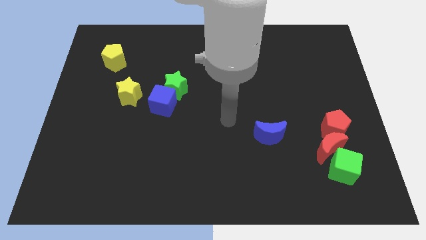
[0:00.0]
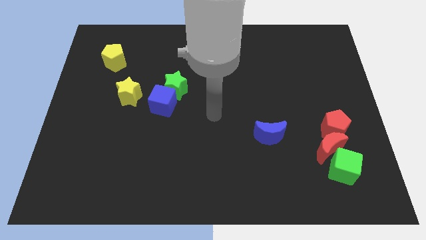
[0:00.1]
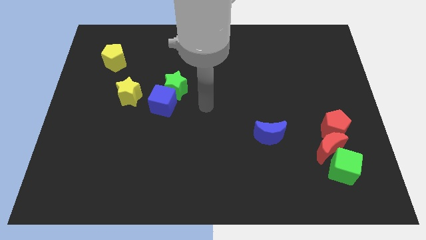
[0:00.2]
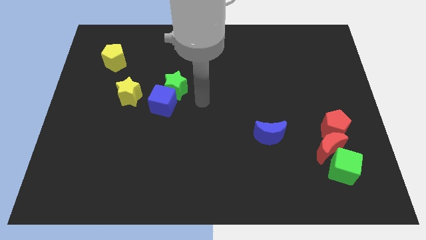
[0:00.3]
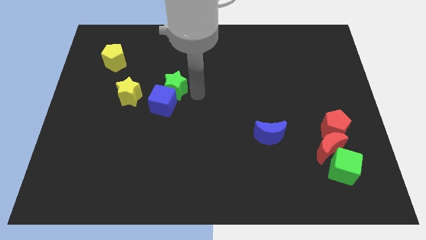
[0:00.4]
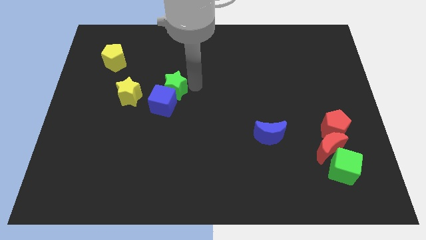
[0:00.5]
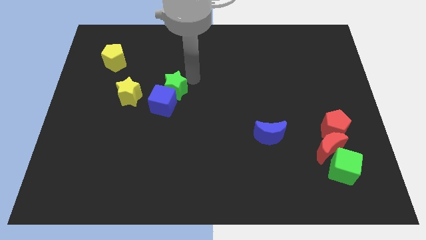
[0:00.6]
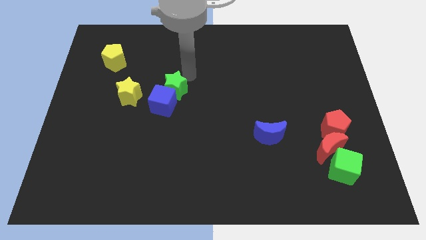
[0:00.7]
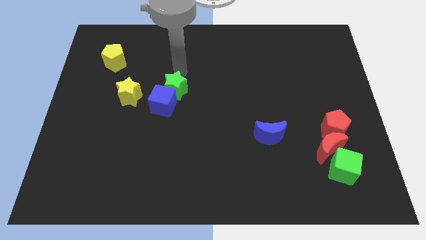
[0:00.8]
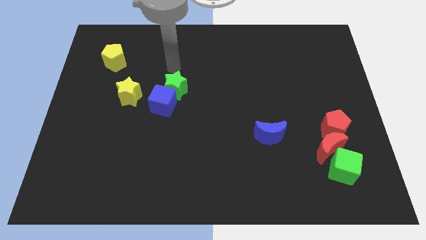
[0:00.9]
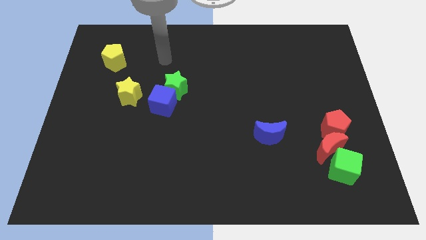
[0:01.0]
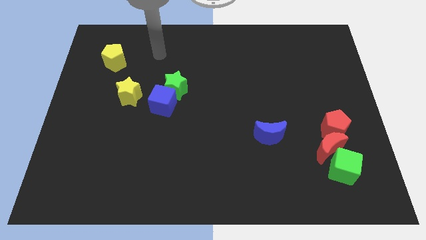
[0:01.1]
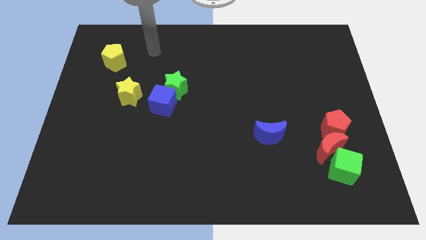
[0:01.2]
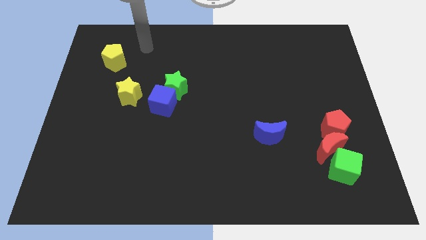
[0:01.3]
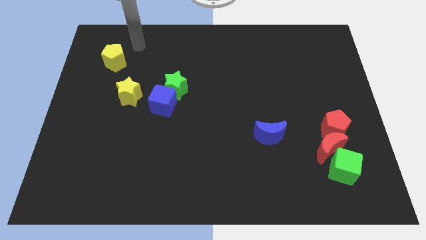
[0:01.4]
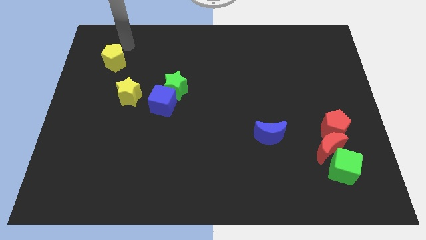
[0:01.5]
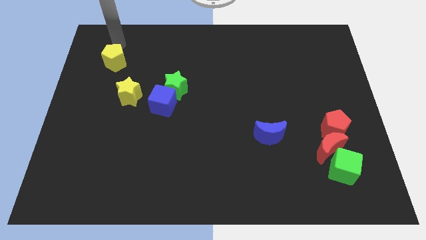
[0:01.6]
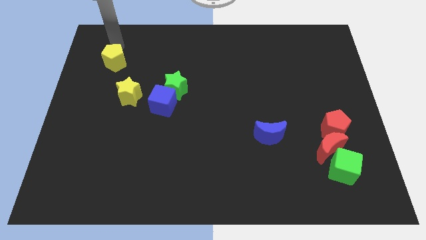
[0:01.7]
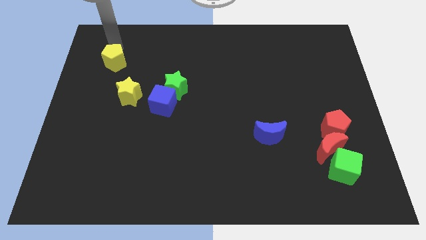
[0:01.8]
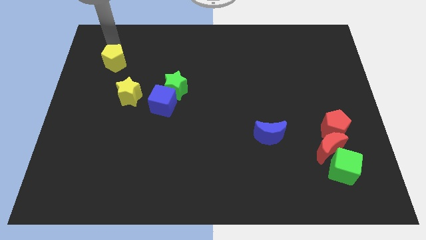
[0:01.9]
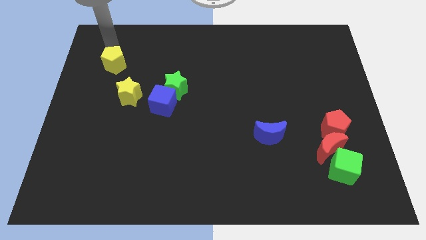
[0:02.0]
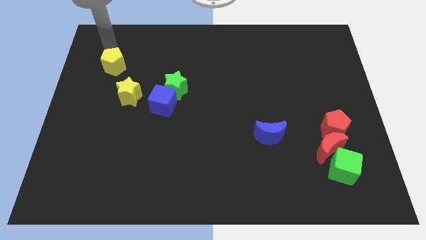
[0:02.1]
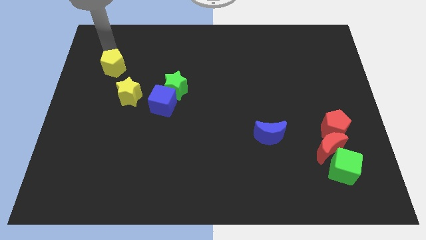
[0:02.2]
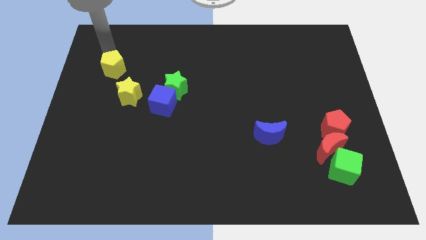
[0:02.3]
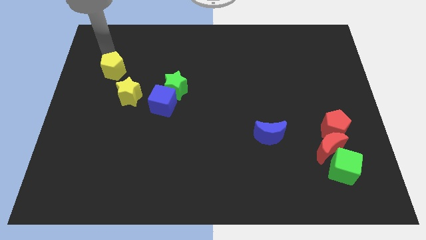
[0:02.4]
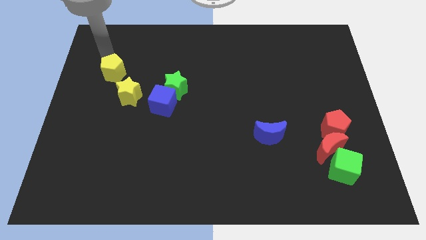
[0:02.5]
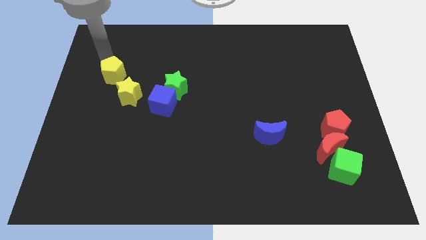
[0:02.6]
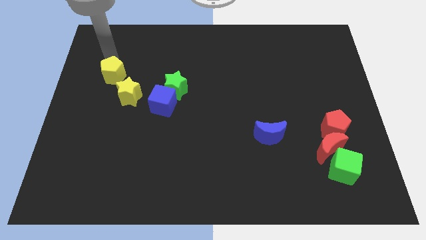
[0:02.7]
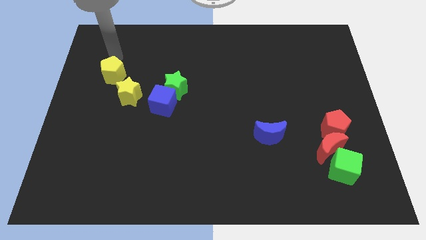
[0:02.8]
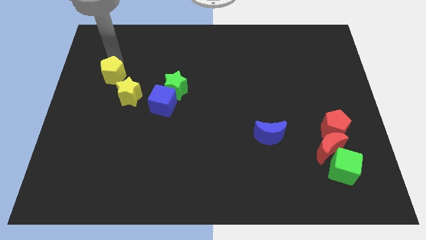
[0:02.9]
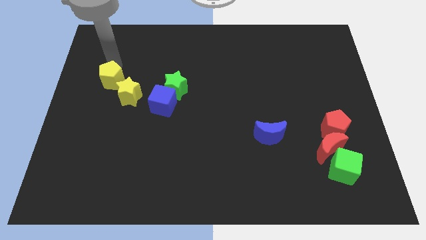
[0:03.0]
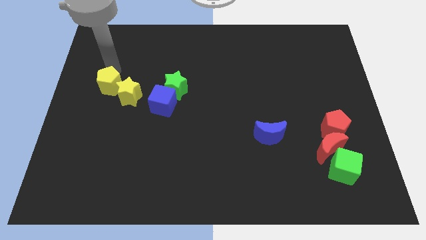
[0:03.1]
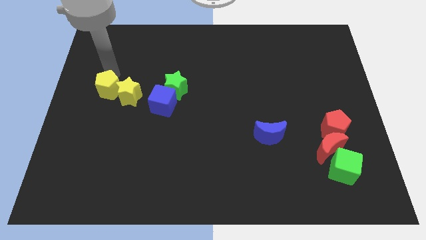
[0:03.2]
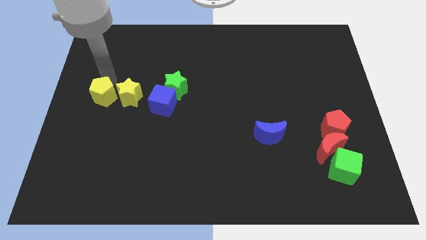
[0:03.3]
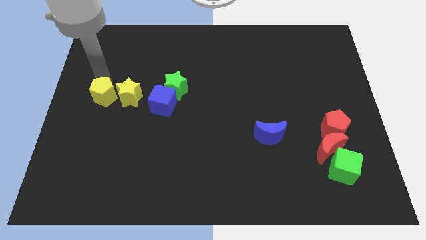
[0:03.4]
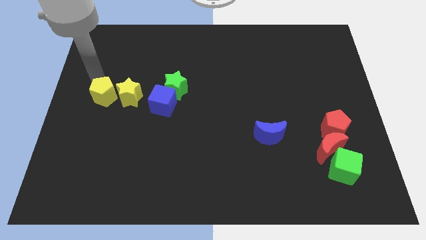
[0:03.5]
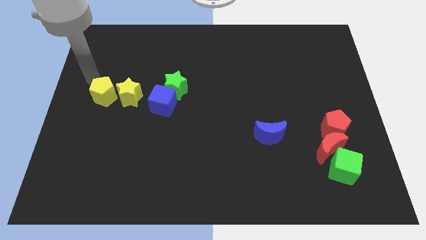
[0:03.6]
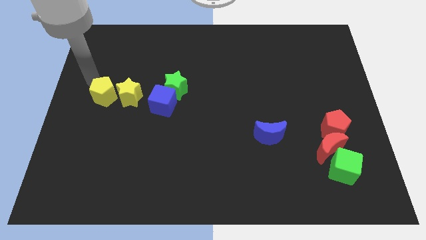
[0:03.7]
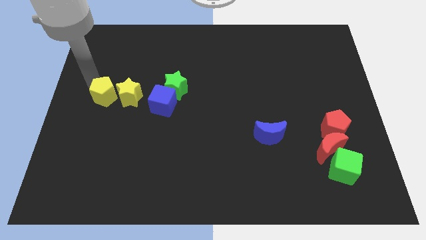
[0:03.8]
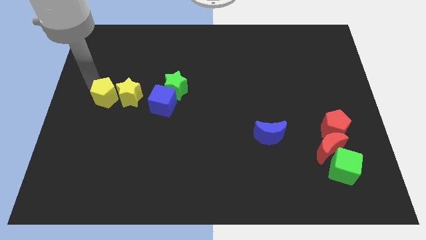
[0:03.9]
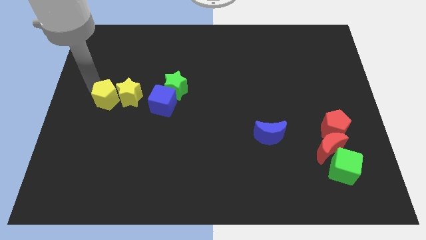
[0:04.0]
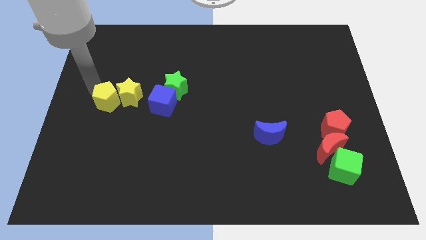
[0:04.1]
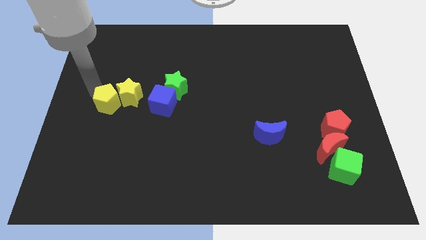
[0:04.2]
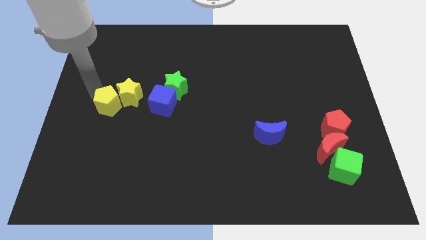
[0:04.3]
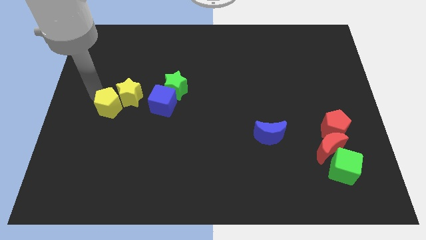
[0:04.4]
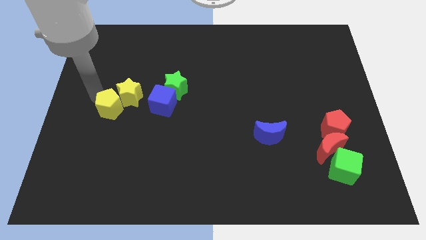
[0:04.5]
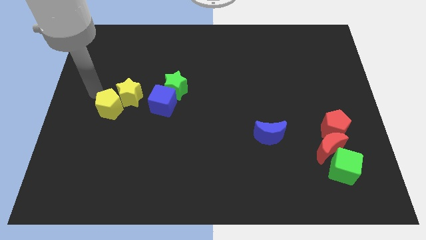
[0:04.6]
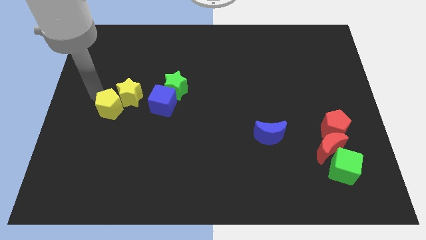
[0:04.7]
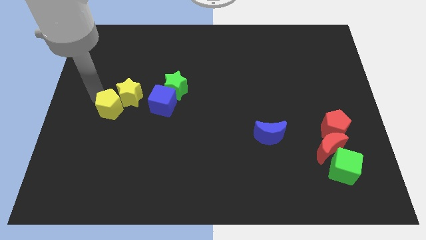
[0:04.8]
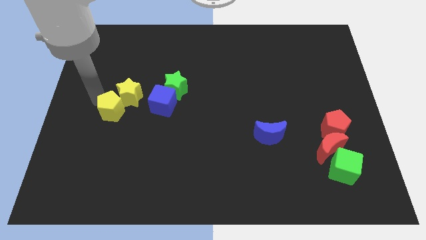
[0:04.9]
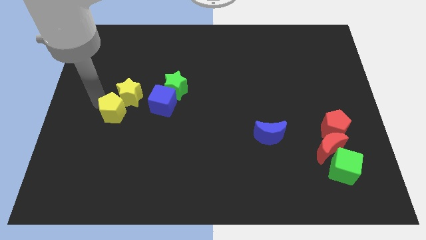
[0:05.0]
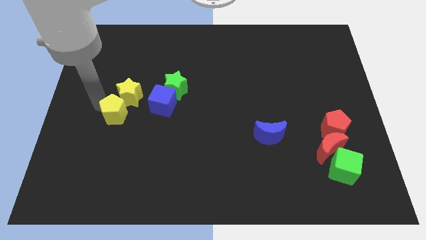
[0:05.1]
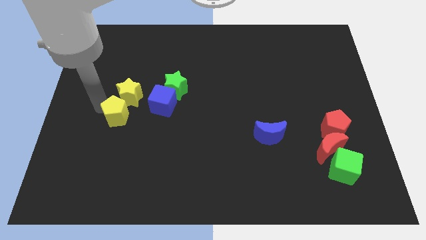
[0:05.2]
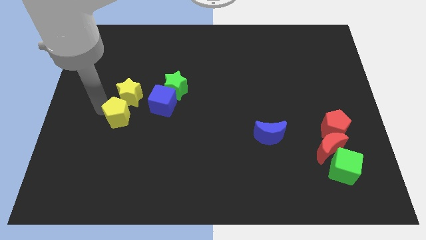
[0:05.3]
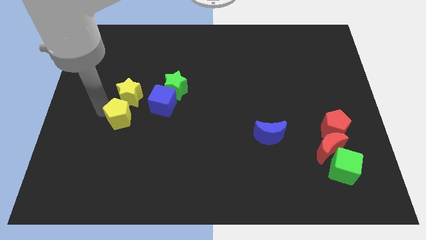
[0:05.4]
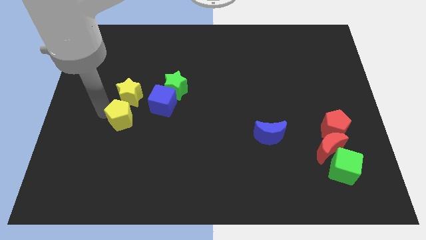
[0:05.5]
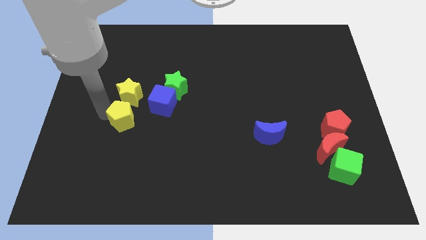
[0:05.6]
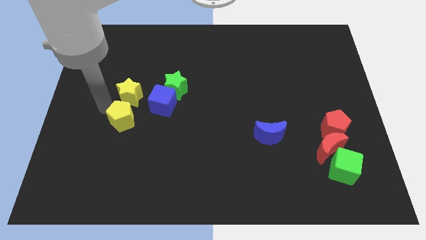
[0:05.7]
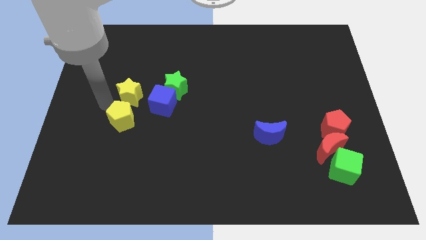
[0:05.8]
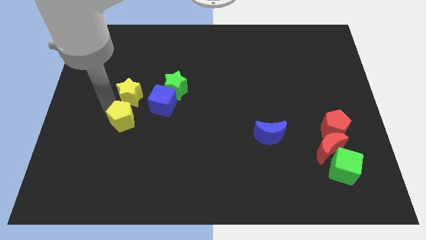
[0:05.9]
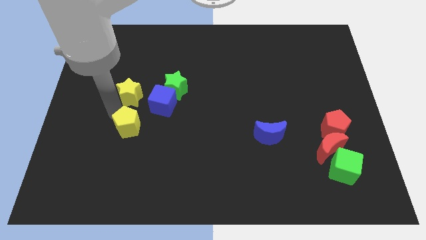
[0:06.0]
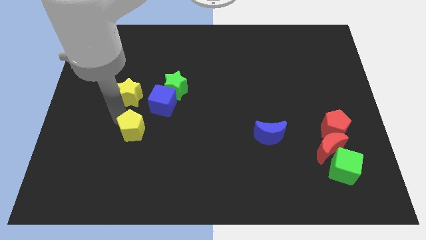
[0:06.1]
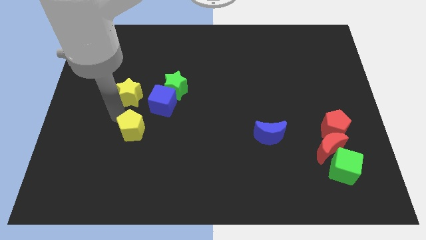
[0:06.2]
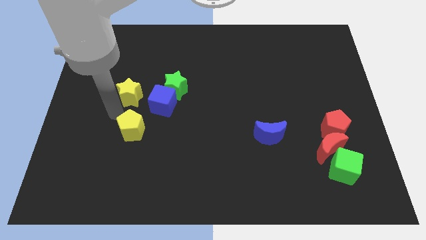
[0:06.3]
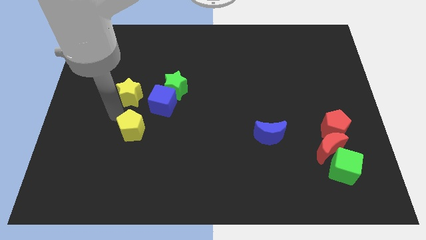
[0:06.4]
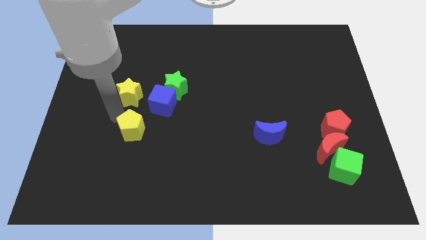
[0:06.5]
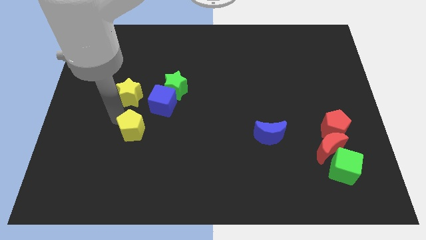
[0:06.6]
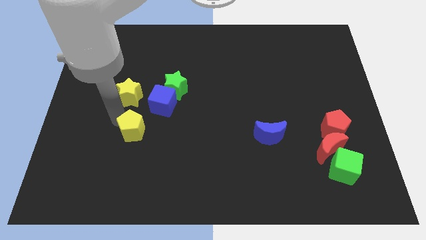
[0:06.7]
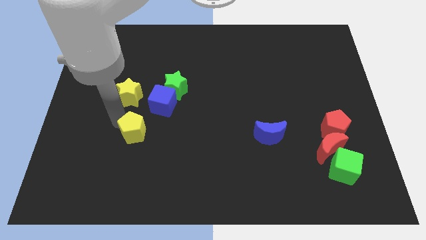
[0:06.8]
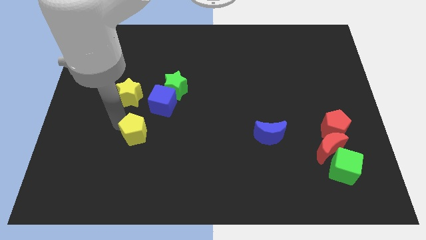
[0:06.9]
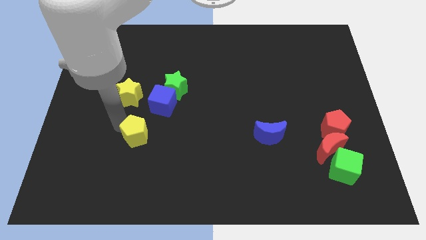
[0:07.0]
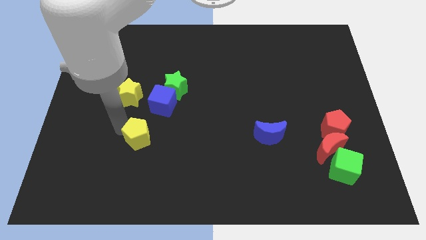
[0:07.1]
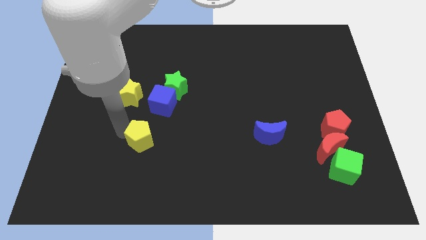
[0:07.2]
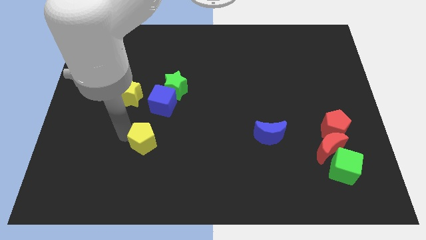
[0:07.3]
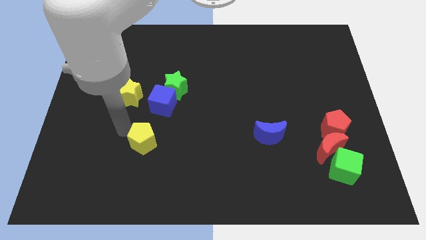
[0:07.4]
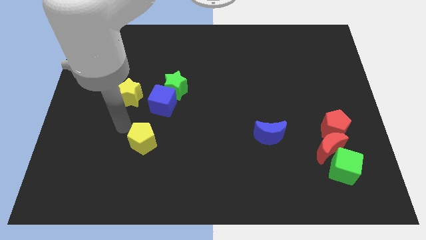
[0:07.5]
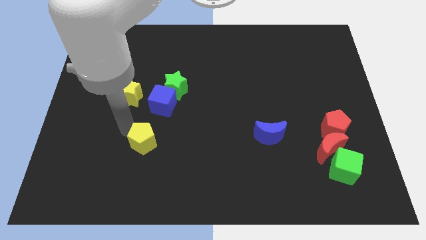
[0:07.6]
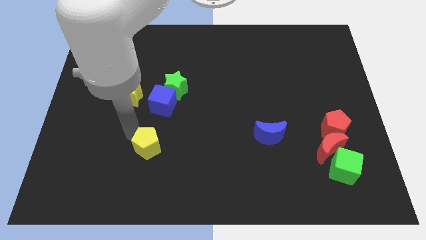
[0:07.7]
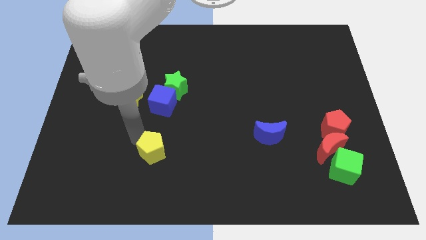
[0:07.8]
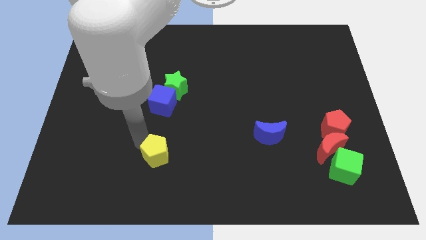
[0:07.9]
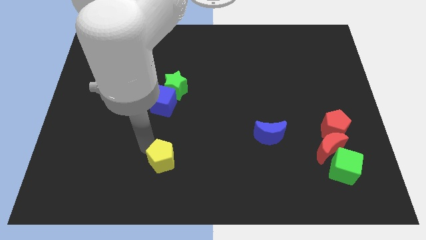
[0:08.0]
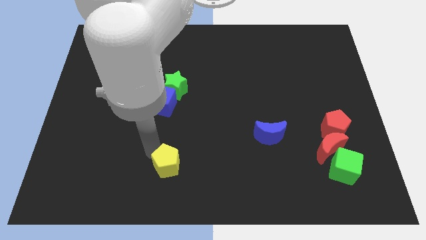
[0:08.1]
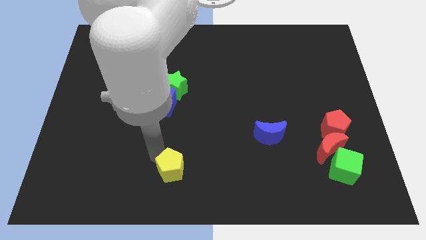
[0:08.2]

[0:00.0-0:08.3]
slide the yellow pentagon to the bottom side
